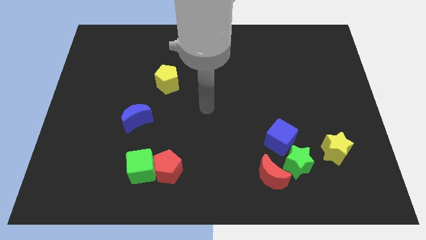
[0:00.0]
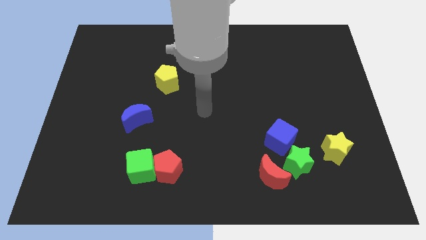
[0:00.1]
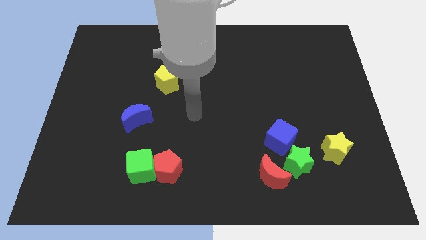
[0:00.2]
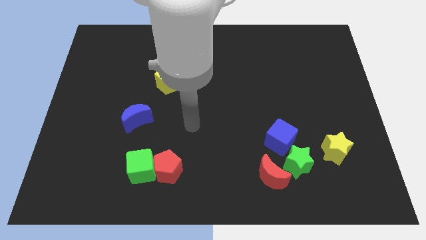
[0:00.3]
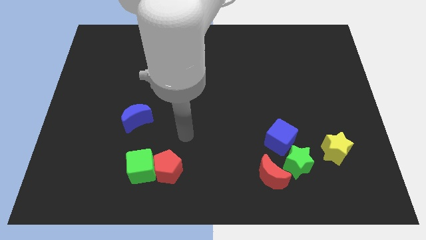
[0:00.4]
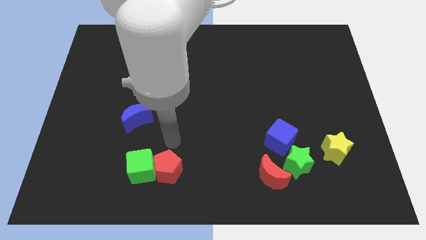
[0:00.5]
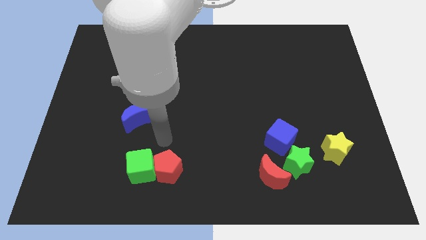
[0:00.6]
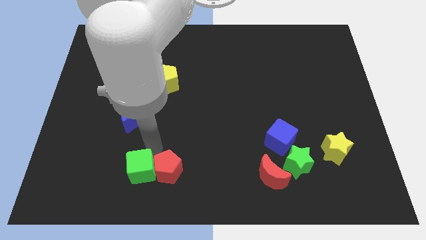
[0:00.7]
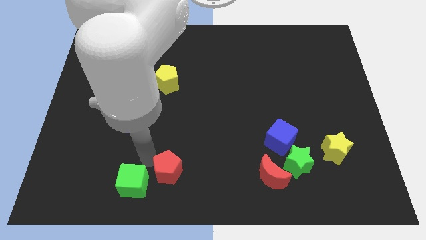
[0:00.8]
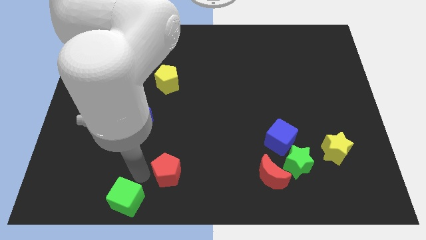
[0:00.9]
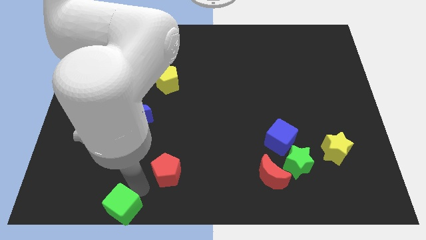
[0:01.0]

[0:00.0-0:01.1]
pull the red pentagon apart from the green cube

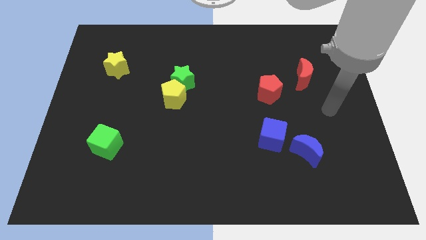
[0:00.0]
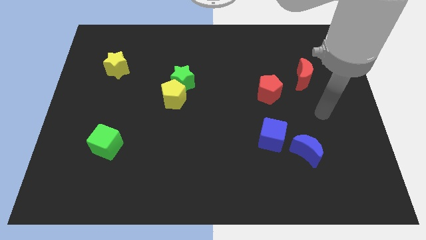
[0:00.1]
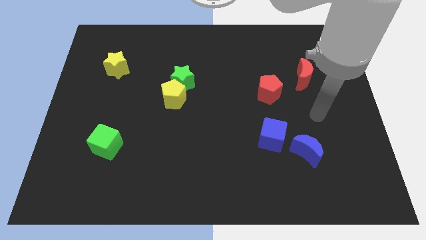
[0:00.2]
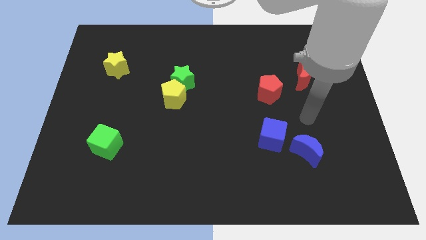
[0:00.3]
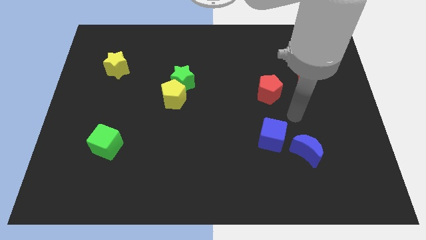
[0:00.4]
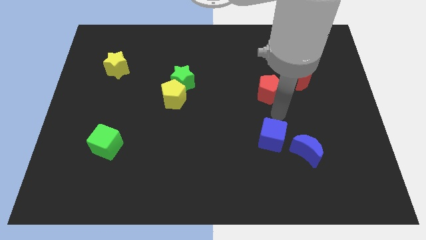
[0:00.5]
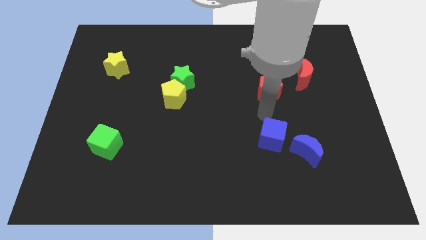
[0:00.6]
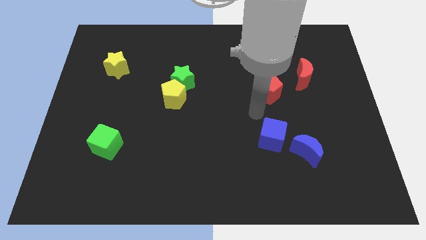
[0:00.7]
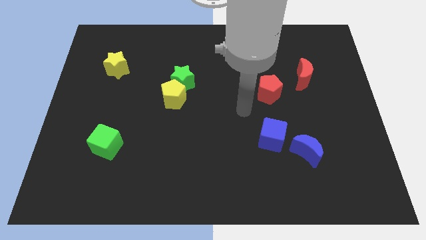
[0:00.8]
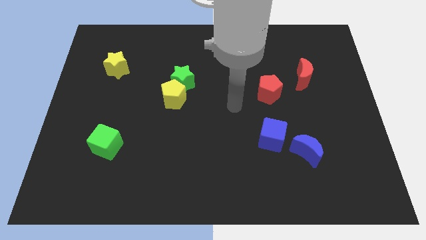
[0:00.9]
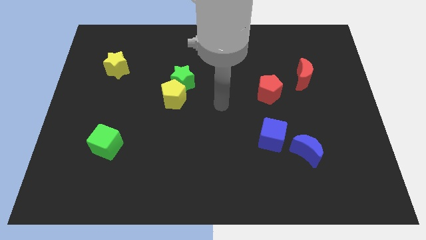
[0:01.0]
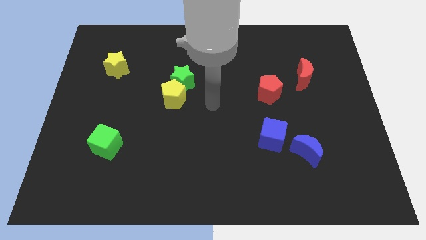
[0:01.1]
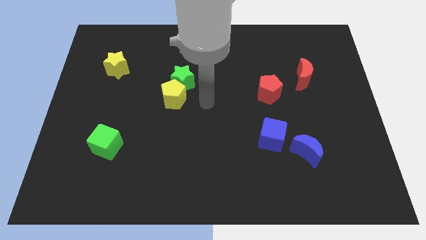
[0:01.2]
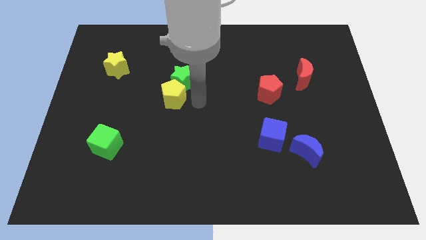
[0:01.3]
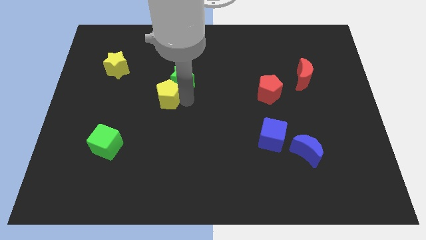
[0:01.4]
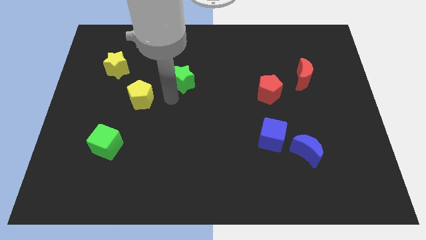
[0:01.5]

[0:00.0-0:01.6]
pull the green star apart from the yellow pentagon

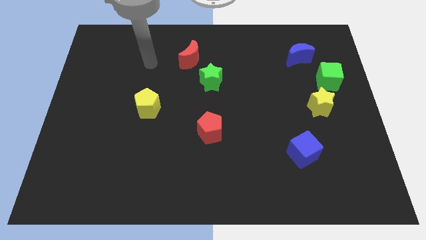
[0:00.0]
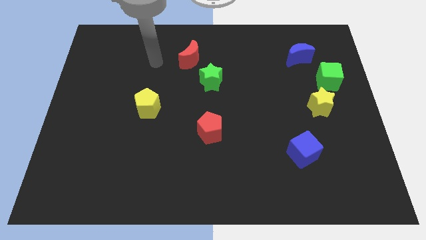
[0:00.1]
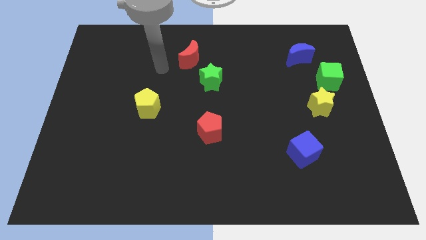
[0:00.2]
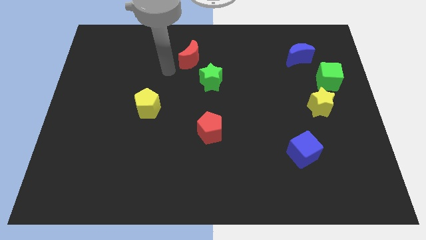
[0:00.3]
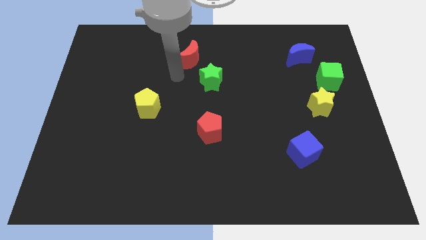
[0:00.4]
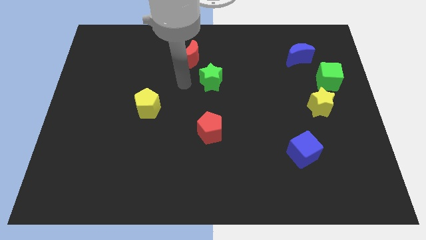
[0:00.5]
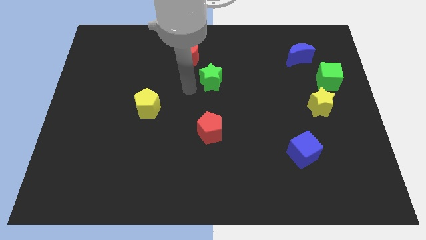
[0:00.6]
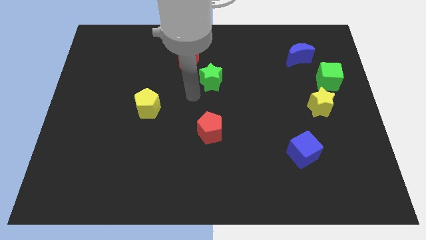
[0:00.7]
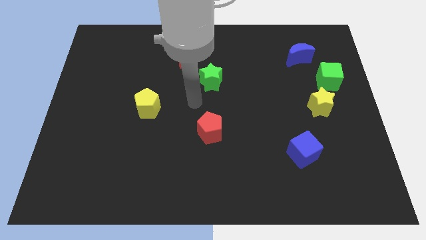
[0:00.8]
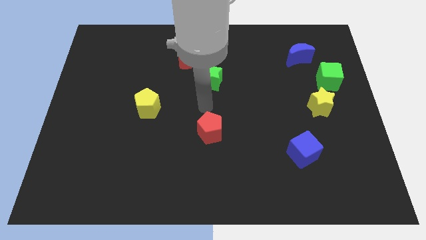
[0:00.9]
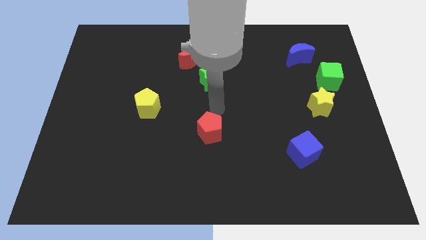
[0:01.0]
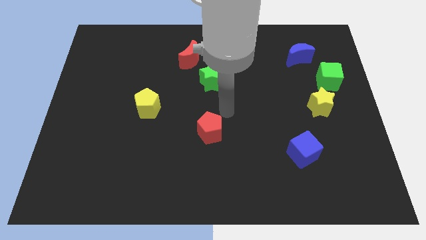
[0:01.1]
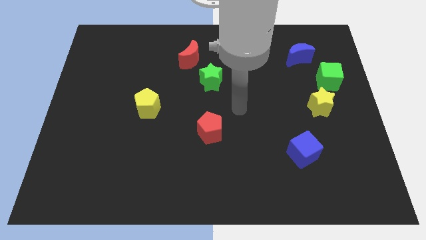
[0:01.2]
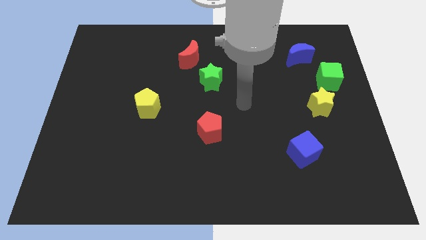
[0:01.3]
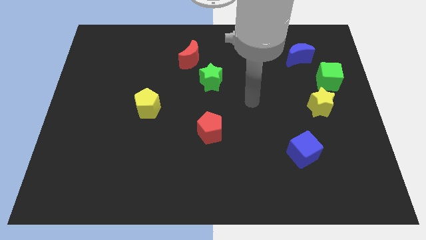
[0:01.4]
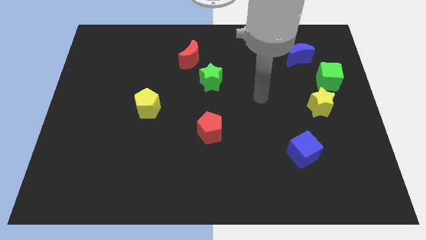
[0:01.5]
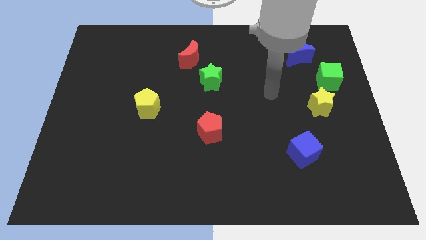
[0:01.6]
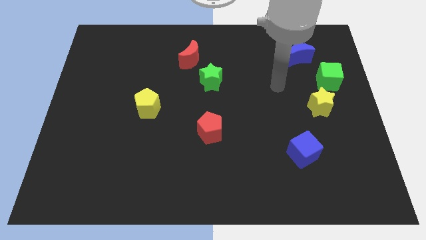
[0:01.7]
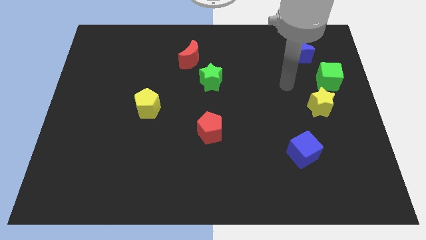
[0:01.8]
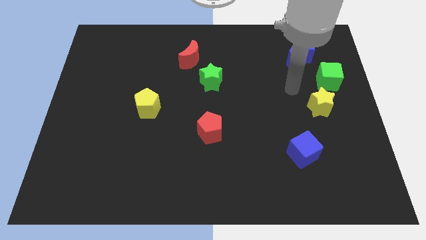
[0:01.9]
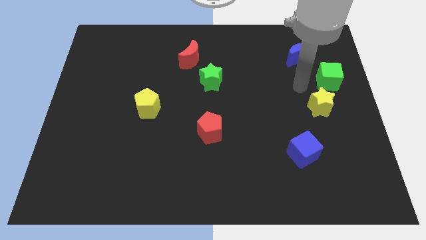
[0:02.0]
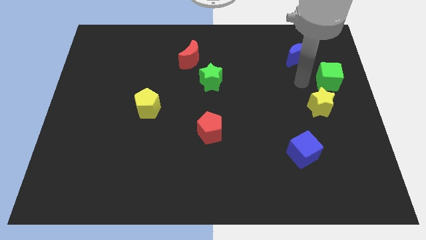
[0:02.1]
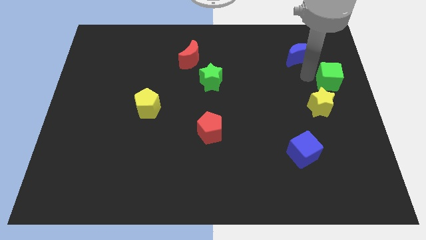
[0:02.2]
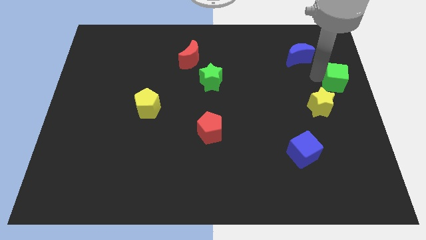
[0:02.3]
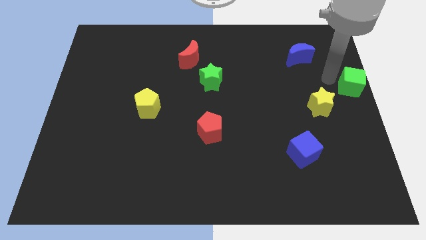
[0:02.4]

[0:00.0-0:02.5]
pull the yellow star apart from the green cube

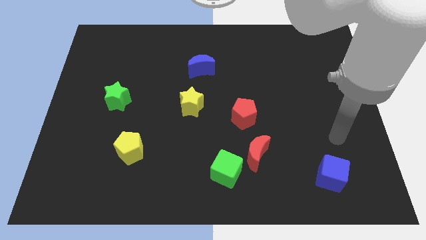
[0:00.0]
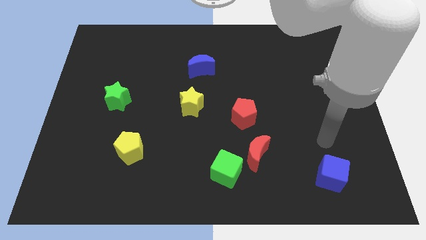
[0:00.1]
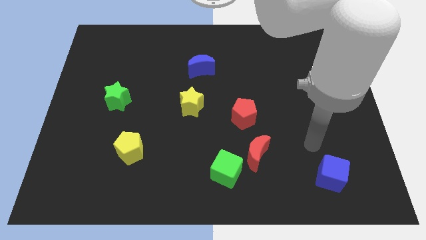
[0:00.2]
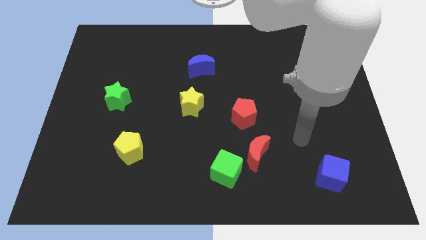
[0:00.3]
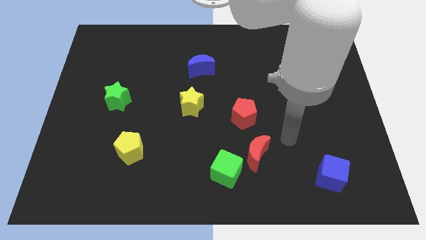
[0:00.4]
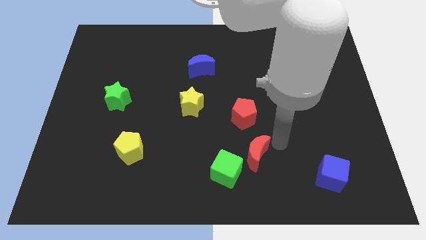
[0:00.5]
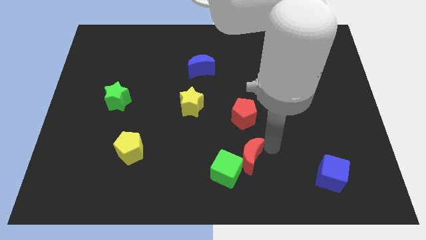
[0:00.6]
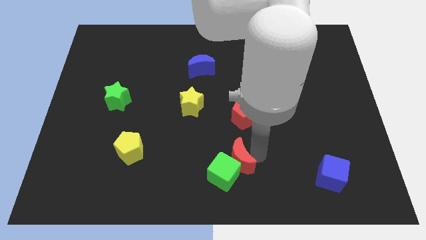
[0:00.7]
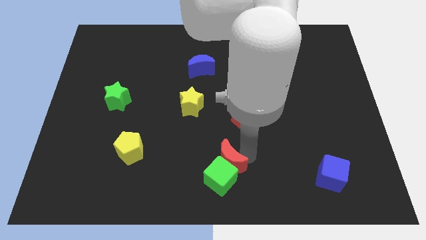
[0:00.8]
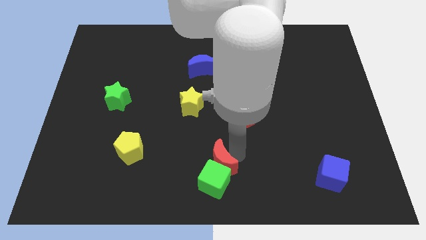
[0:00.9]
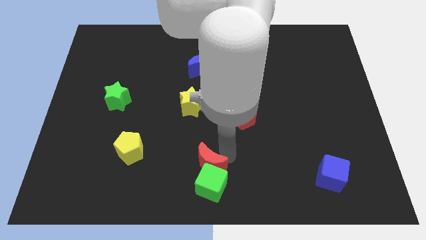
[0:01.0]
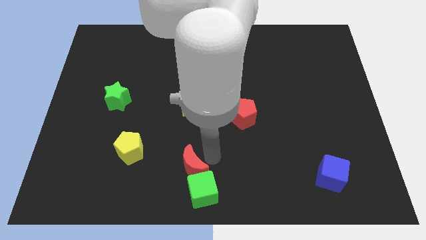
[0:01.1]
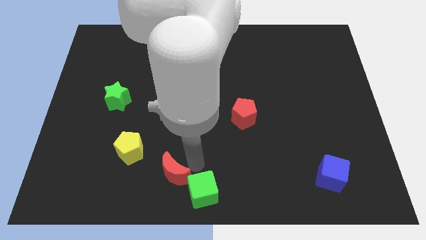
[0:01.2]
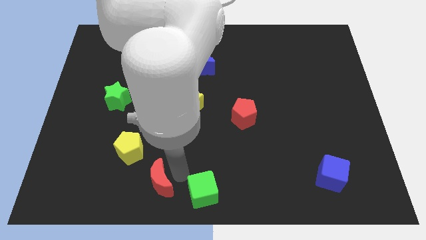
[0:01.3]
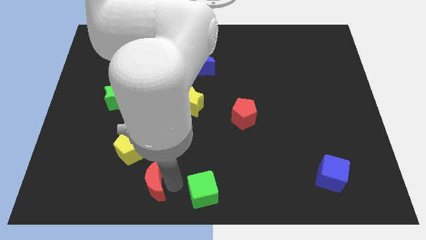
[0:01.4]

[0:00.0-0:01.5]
pull the green cube apart from the red moon

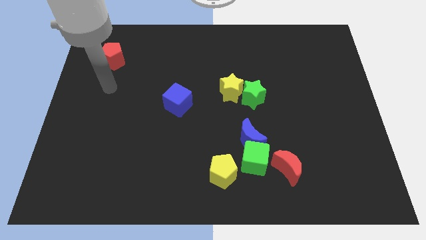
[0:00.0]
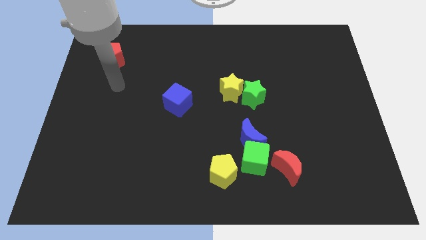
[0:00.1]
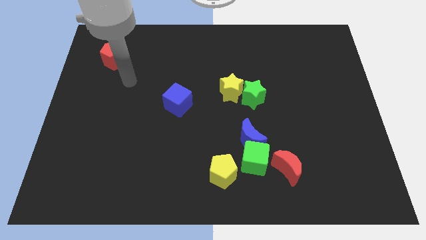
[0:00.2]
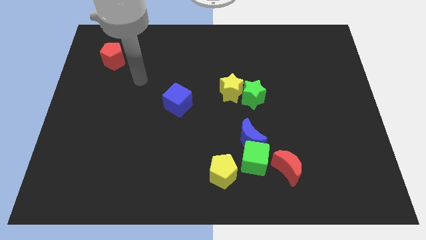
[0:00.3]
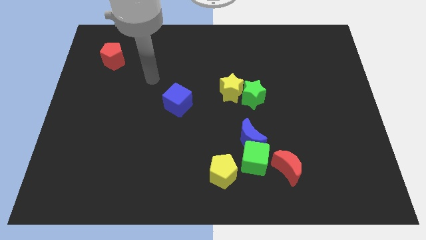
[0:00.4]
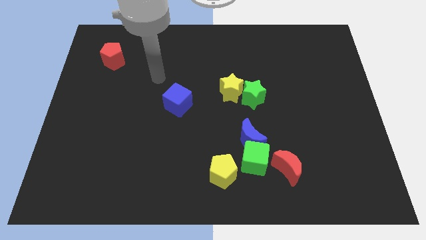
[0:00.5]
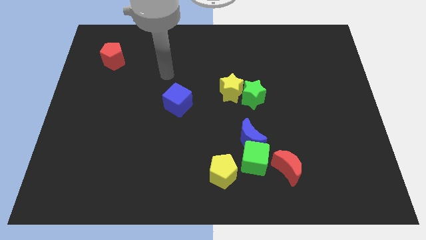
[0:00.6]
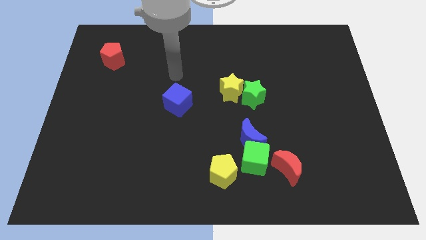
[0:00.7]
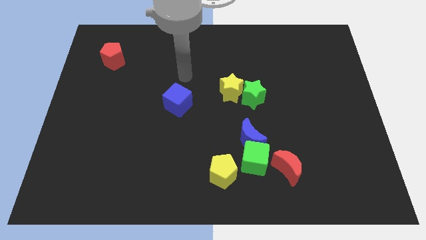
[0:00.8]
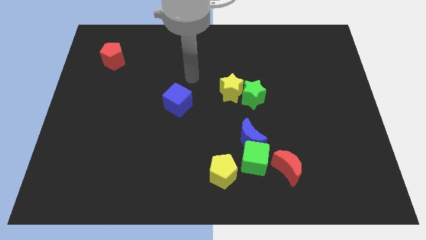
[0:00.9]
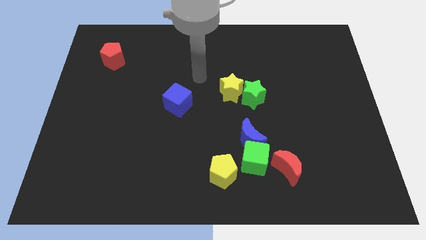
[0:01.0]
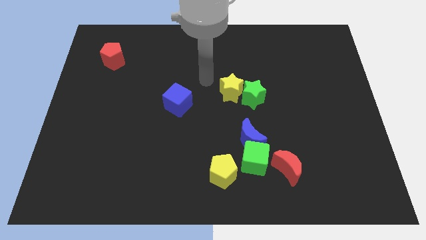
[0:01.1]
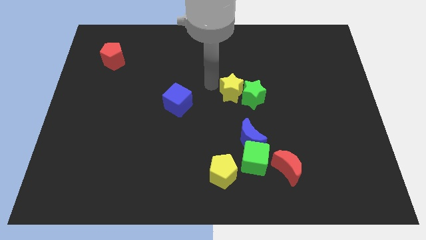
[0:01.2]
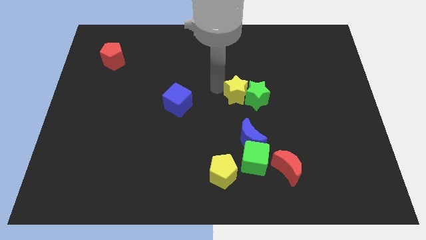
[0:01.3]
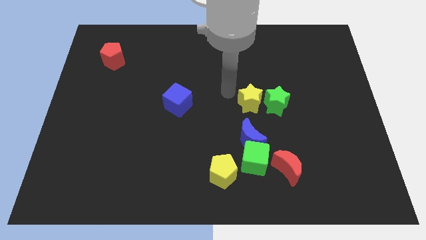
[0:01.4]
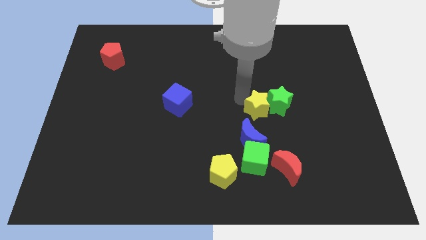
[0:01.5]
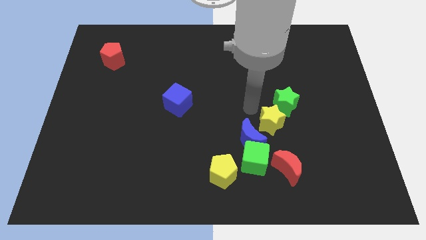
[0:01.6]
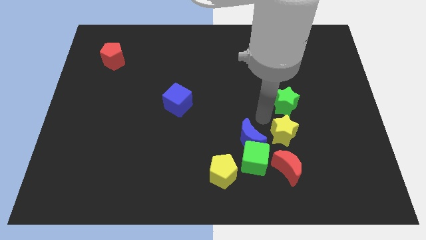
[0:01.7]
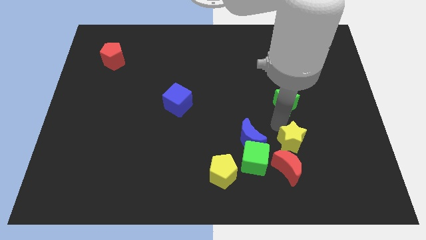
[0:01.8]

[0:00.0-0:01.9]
separate the green star from the yellow star

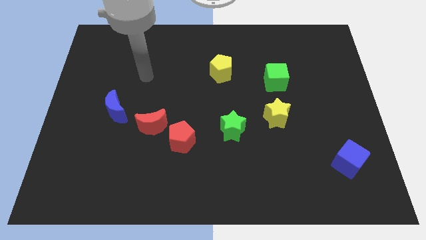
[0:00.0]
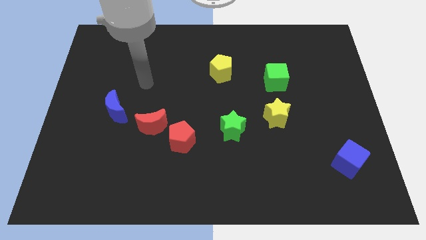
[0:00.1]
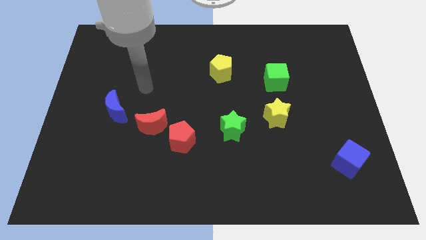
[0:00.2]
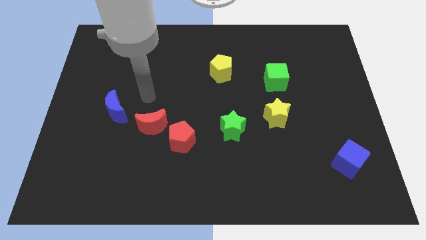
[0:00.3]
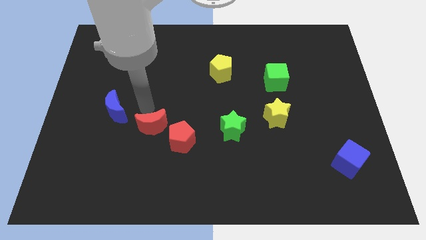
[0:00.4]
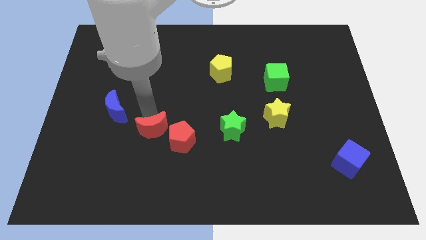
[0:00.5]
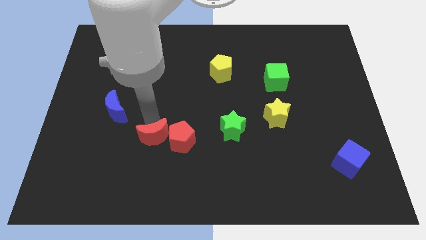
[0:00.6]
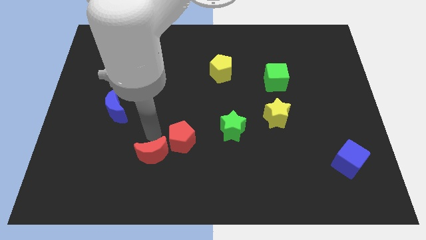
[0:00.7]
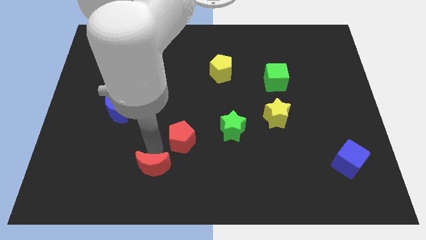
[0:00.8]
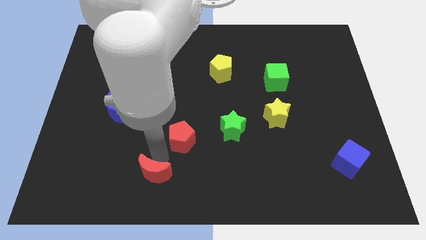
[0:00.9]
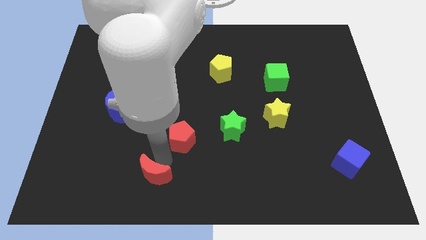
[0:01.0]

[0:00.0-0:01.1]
pull the red pentagon apart from the red moon
